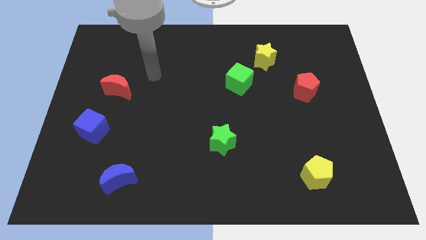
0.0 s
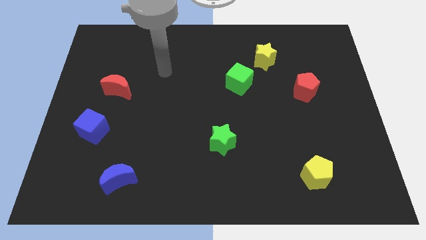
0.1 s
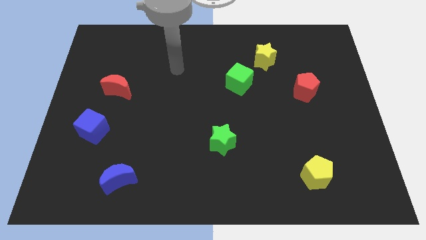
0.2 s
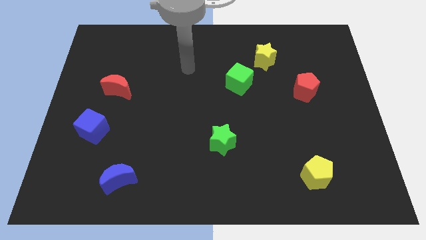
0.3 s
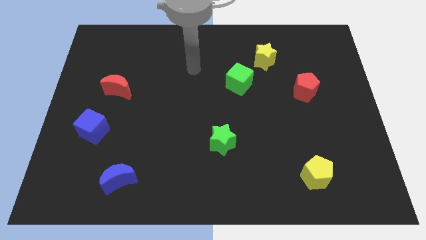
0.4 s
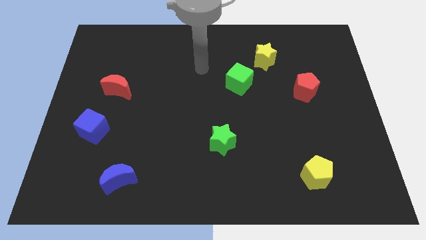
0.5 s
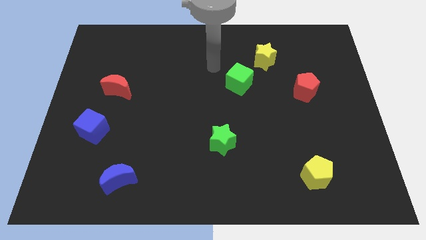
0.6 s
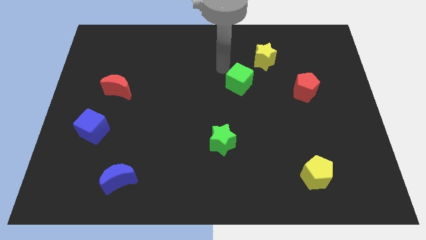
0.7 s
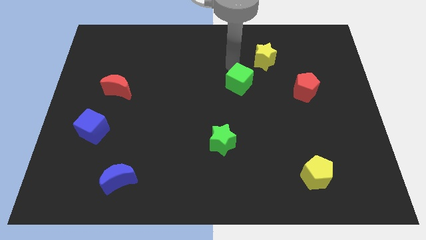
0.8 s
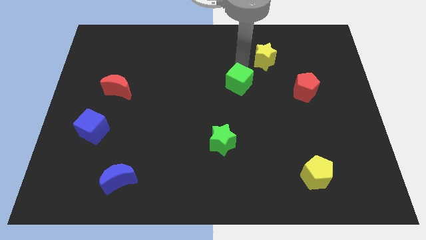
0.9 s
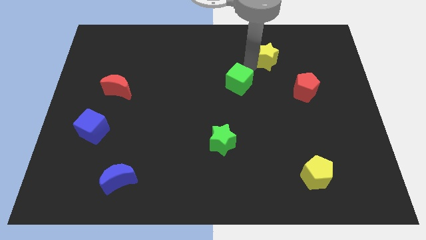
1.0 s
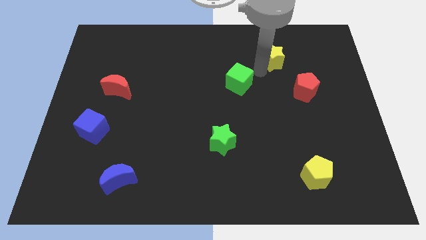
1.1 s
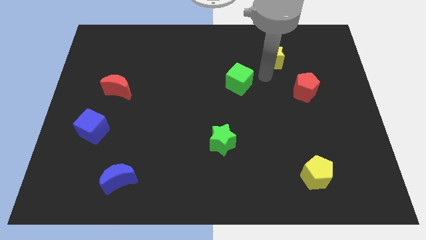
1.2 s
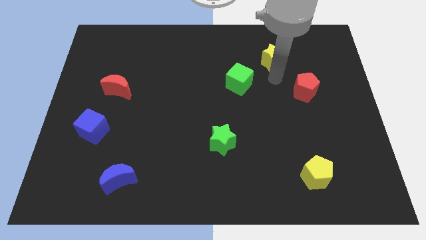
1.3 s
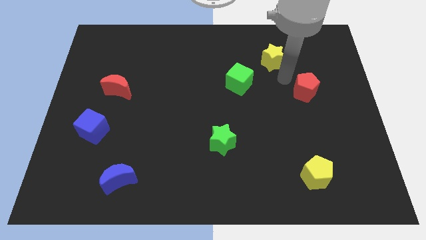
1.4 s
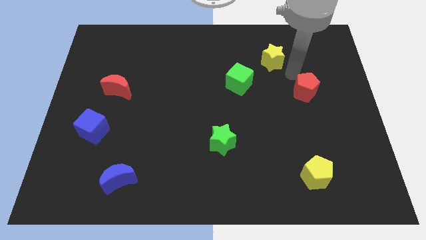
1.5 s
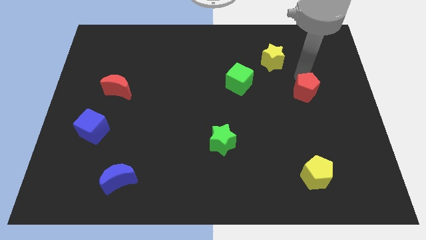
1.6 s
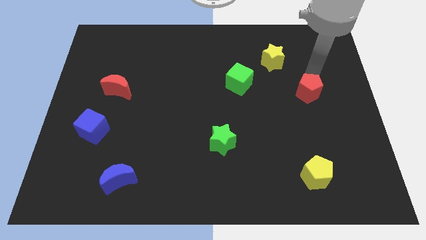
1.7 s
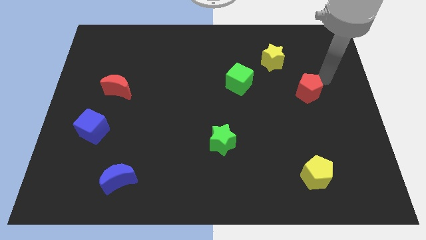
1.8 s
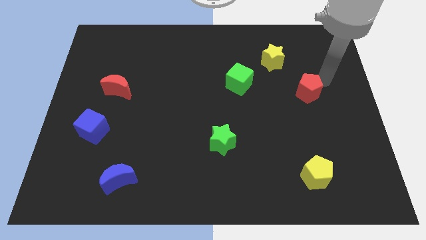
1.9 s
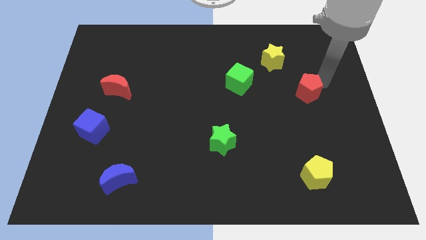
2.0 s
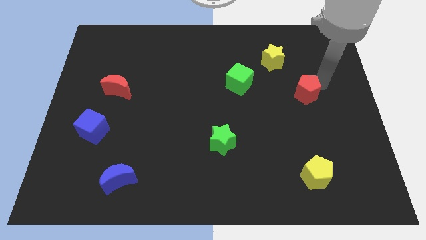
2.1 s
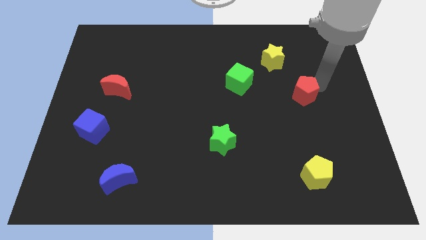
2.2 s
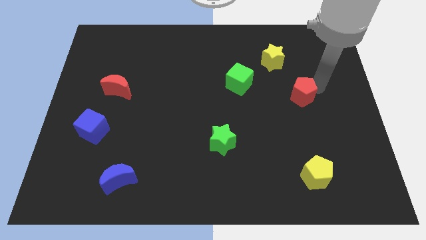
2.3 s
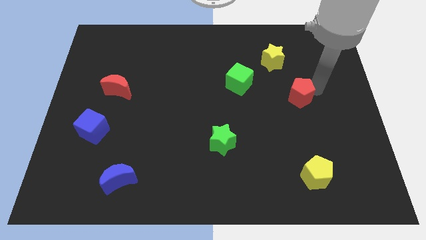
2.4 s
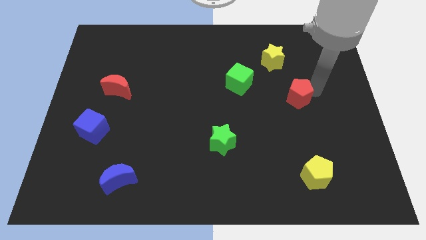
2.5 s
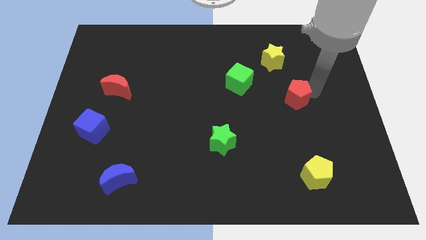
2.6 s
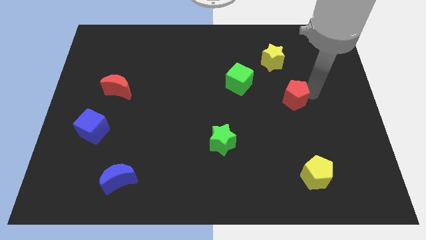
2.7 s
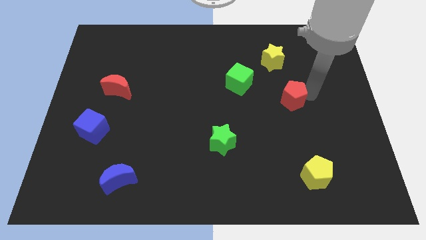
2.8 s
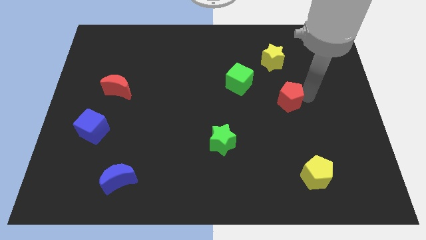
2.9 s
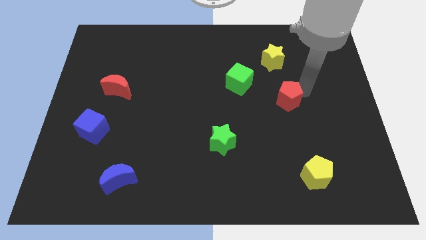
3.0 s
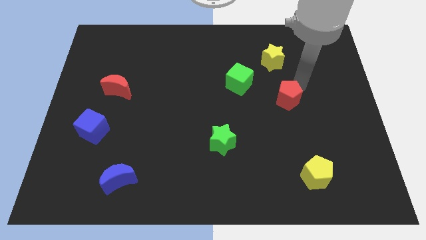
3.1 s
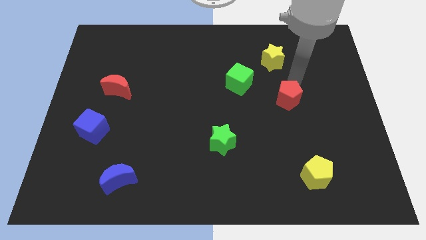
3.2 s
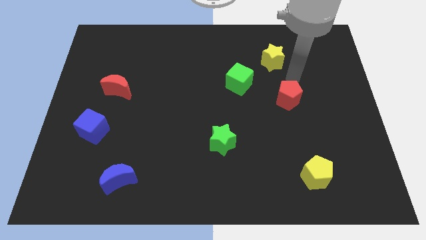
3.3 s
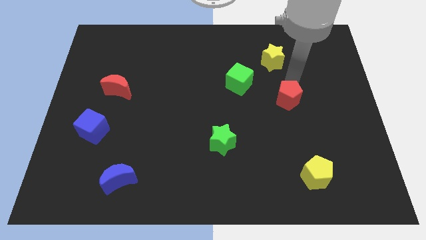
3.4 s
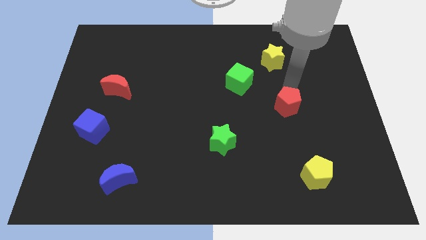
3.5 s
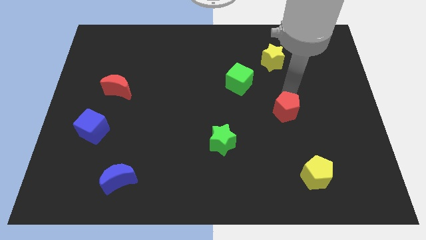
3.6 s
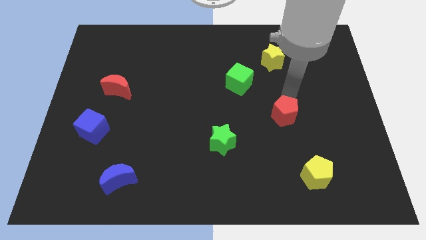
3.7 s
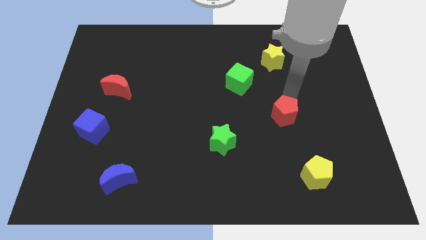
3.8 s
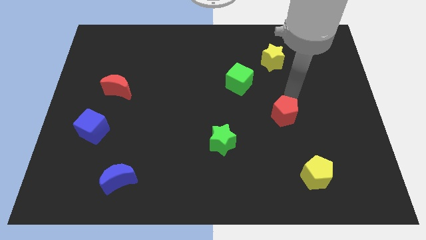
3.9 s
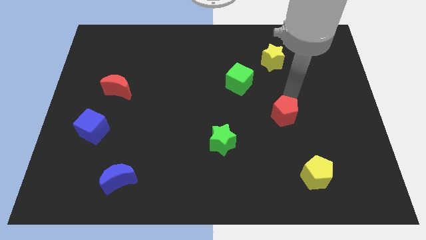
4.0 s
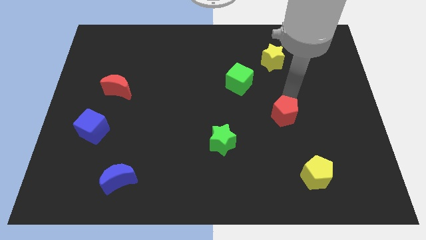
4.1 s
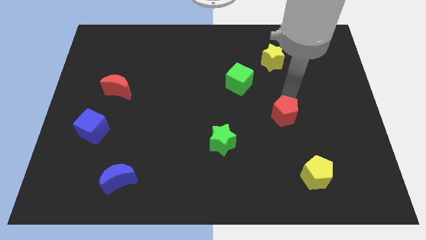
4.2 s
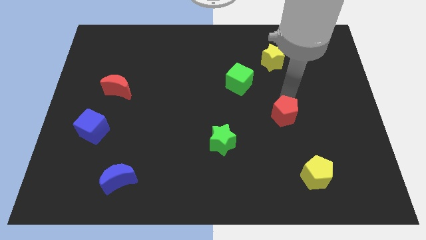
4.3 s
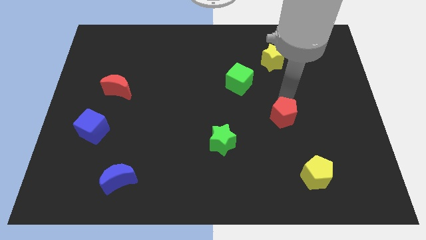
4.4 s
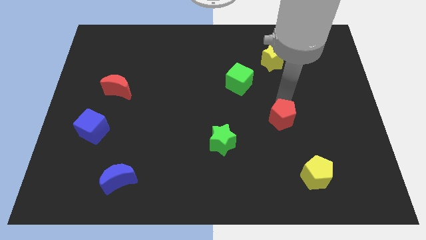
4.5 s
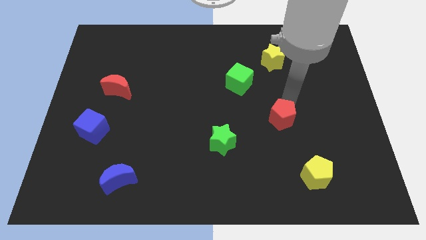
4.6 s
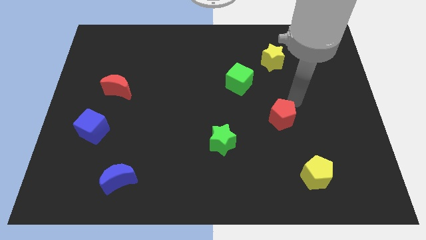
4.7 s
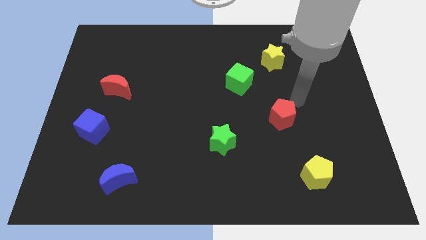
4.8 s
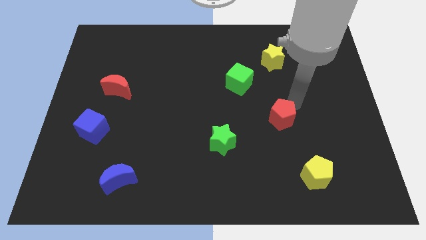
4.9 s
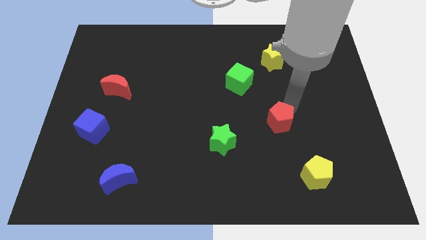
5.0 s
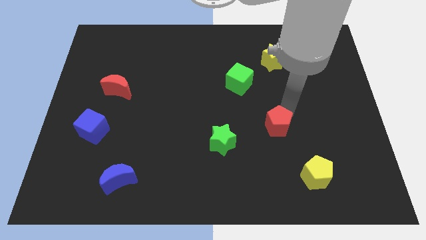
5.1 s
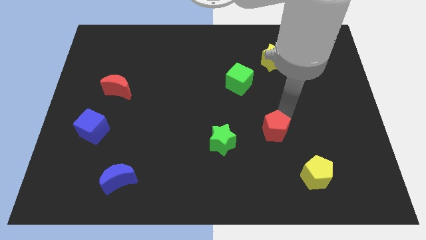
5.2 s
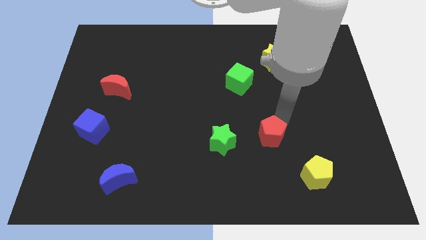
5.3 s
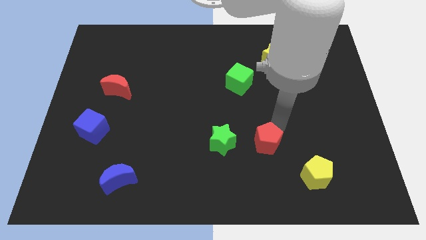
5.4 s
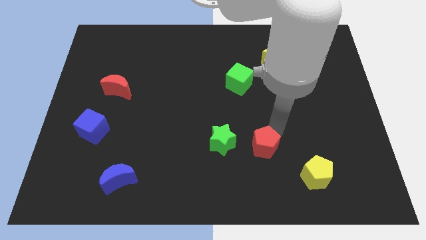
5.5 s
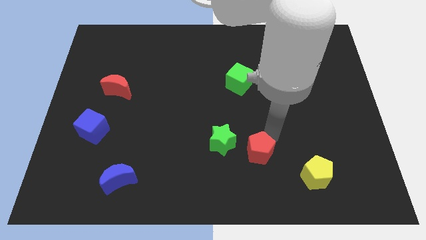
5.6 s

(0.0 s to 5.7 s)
move the red pentagon down and to the left

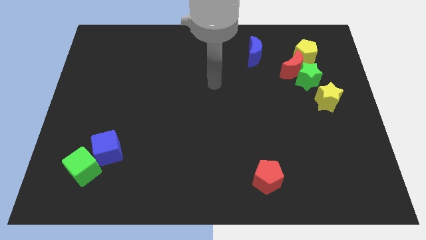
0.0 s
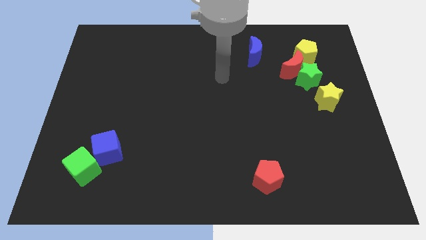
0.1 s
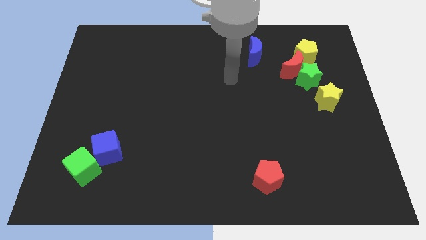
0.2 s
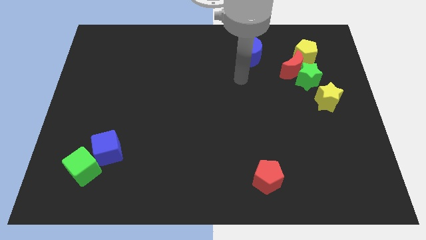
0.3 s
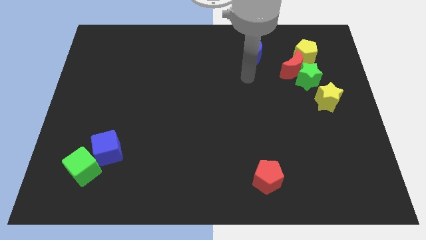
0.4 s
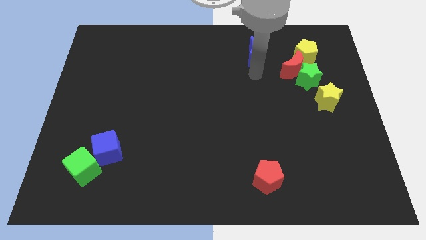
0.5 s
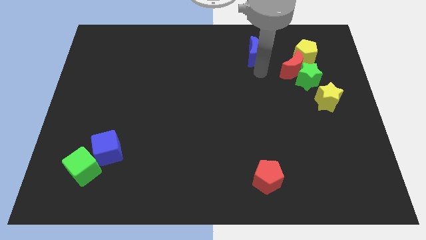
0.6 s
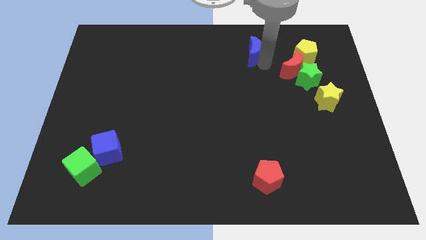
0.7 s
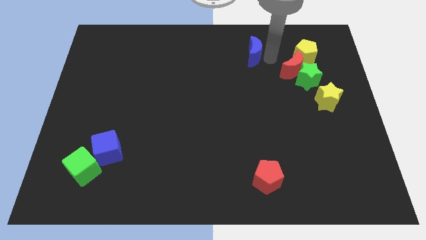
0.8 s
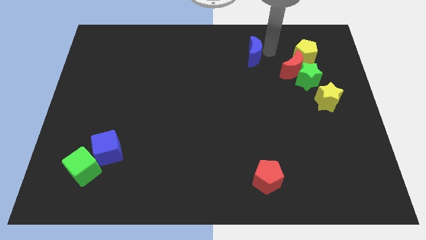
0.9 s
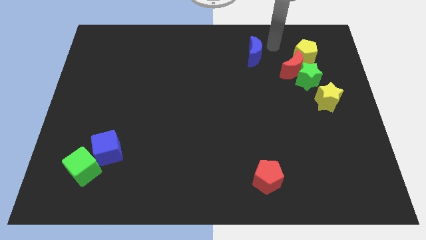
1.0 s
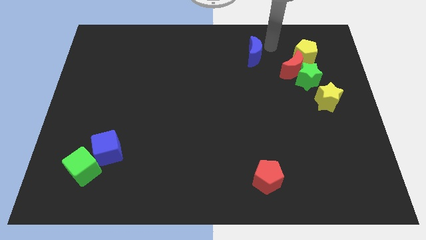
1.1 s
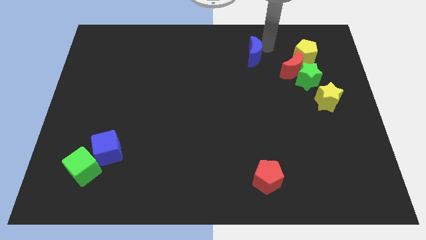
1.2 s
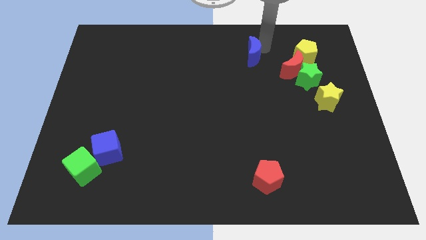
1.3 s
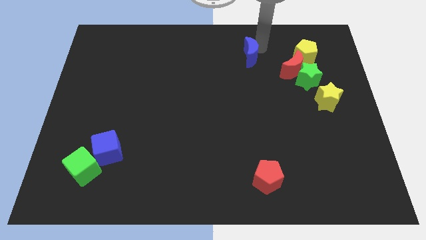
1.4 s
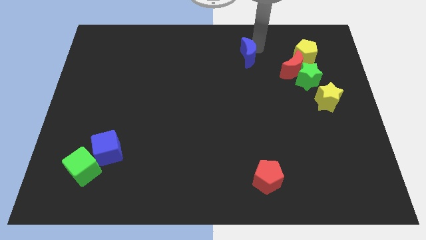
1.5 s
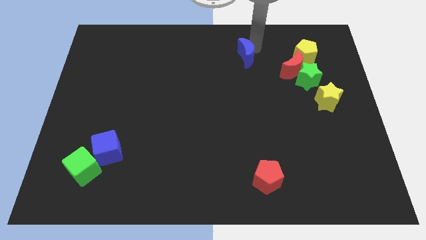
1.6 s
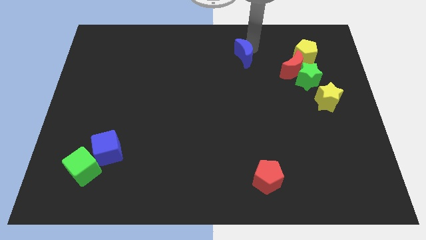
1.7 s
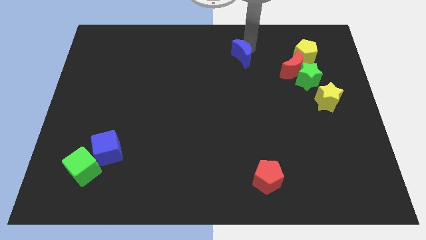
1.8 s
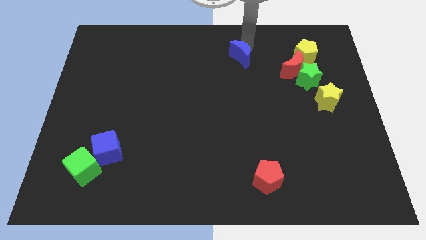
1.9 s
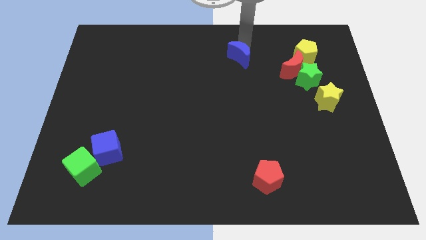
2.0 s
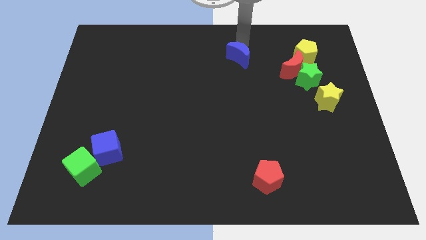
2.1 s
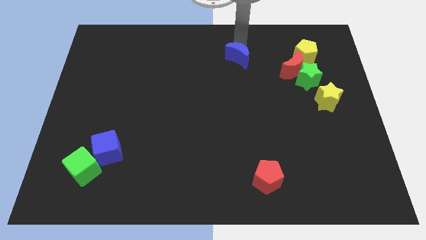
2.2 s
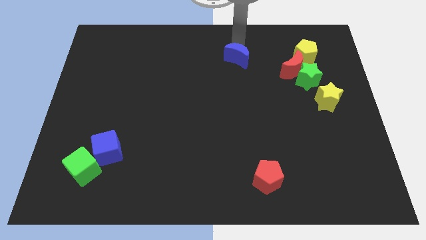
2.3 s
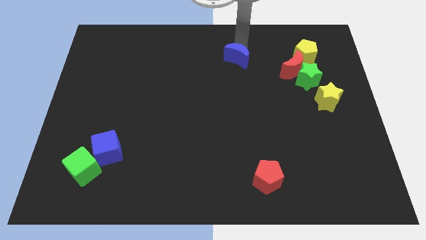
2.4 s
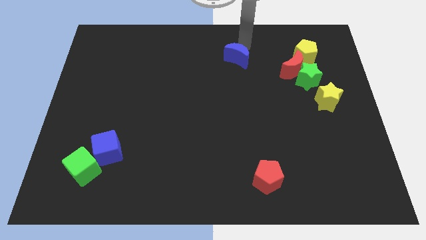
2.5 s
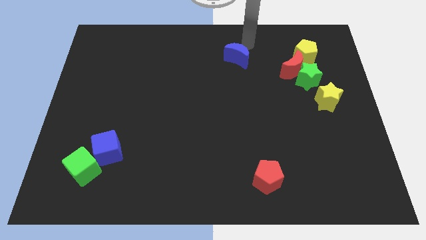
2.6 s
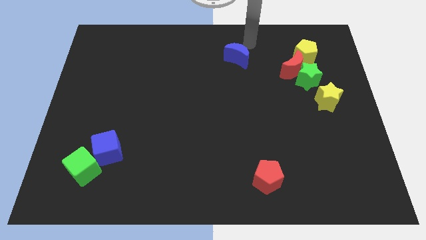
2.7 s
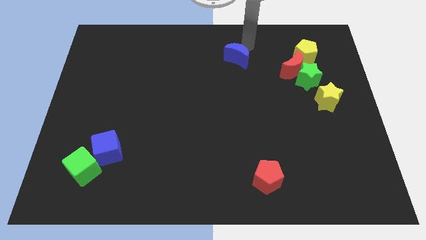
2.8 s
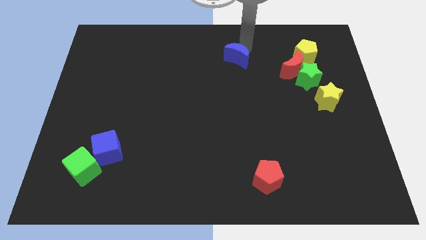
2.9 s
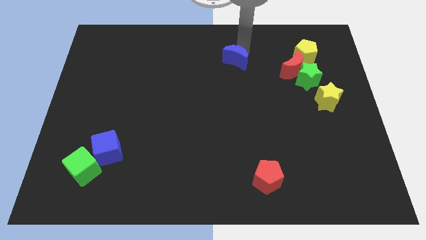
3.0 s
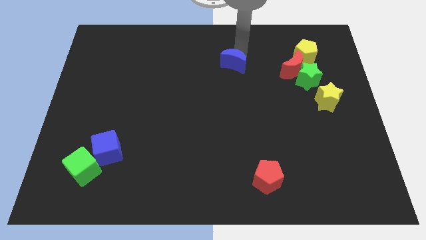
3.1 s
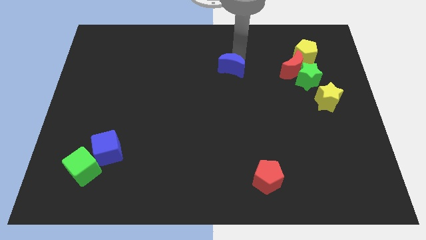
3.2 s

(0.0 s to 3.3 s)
slide the blue moon slightly down and then to the left
